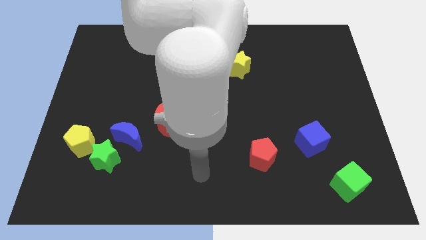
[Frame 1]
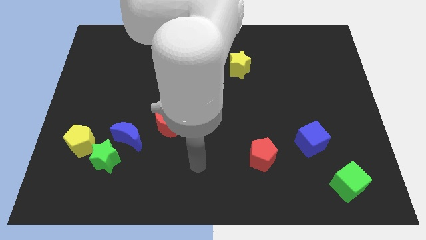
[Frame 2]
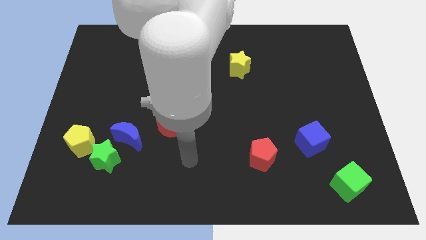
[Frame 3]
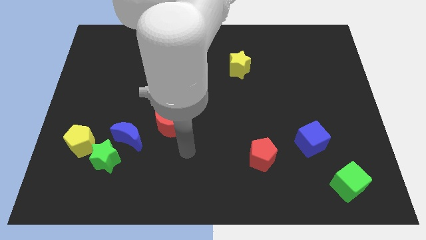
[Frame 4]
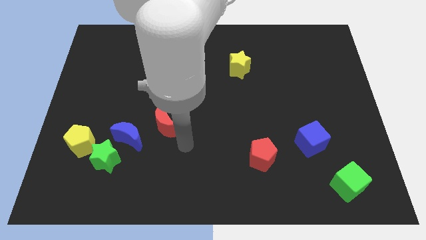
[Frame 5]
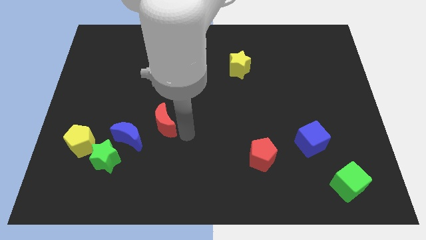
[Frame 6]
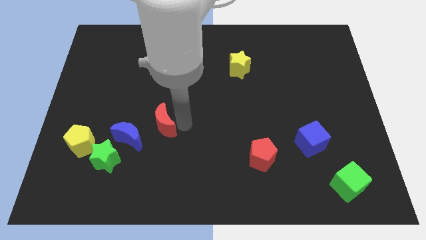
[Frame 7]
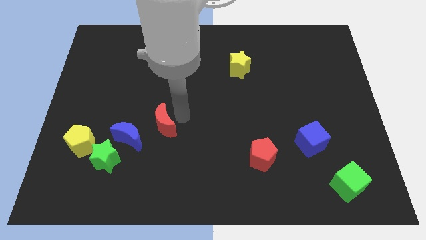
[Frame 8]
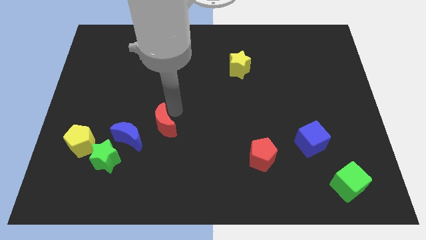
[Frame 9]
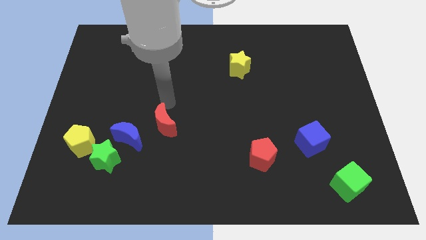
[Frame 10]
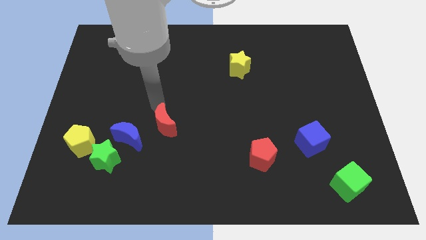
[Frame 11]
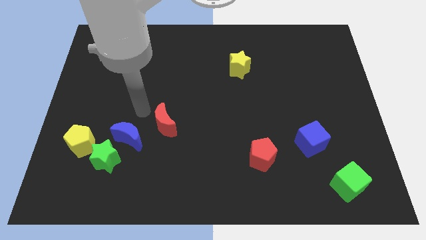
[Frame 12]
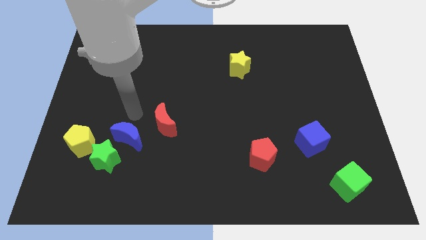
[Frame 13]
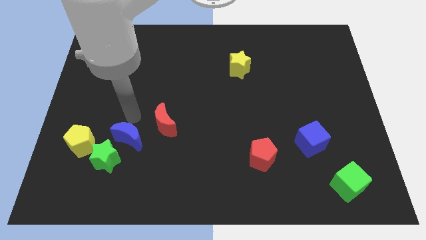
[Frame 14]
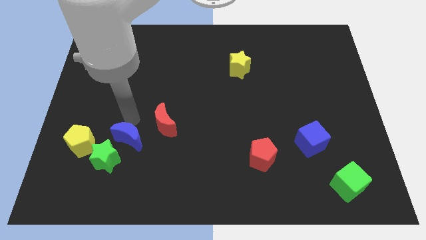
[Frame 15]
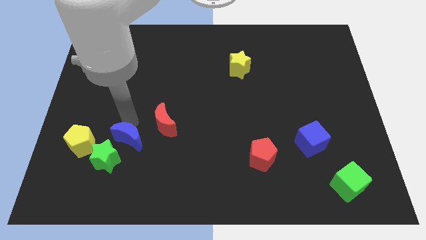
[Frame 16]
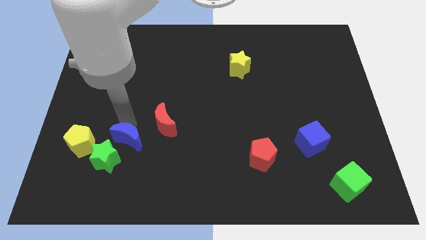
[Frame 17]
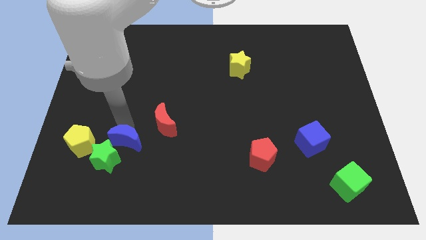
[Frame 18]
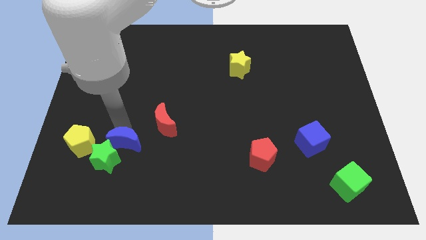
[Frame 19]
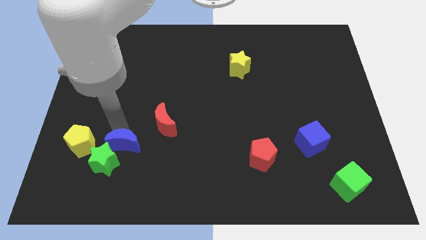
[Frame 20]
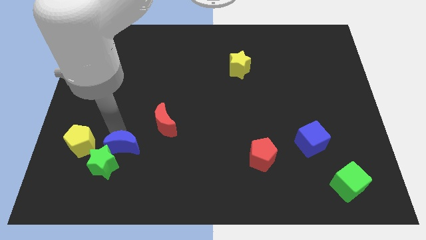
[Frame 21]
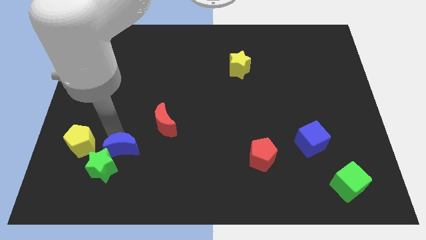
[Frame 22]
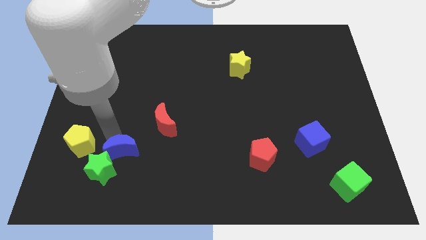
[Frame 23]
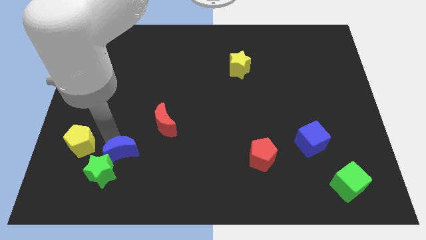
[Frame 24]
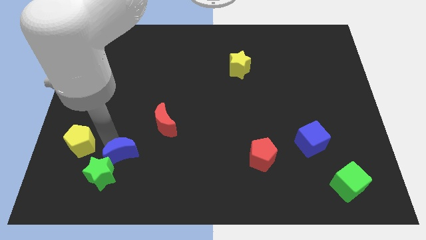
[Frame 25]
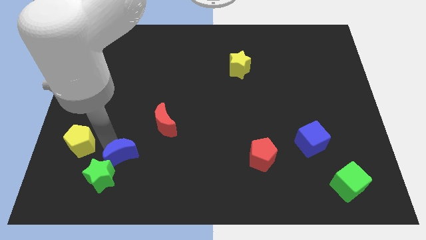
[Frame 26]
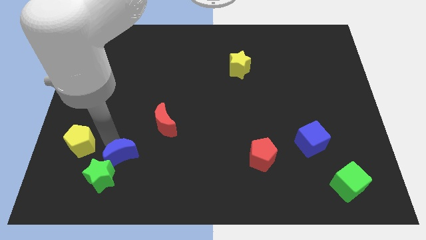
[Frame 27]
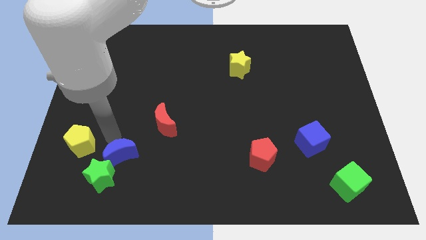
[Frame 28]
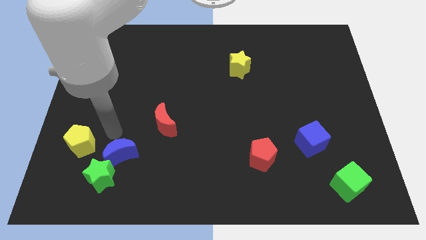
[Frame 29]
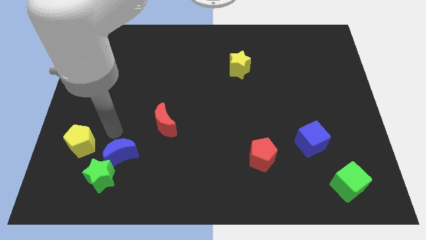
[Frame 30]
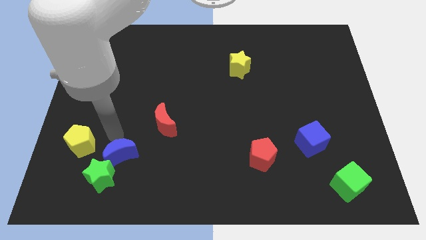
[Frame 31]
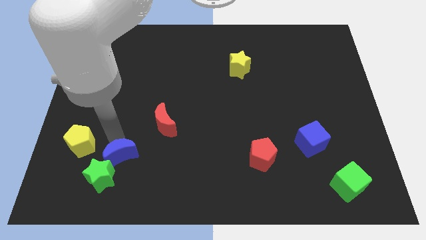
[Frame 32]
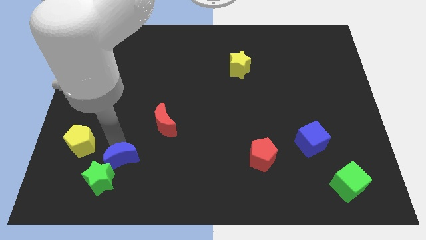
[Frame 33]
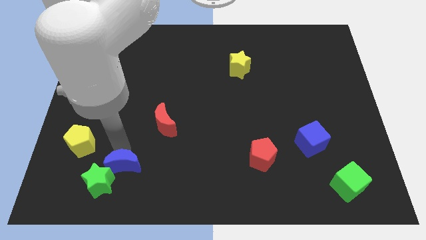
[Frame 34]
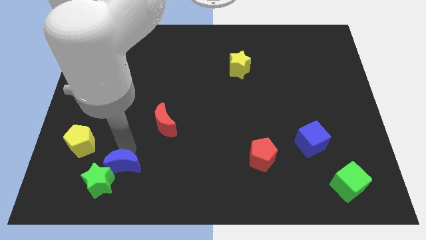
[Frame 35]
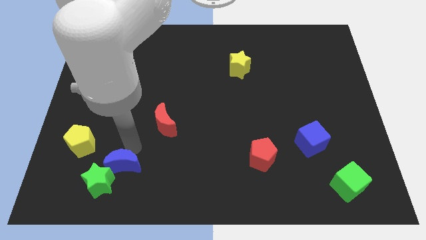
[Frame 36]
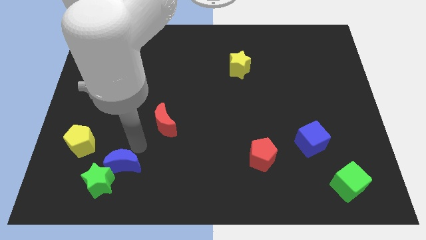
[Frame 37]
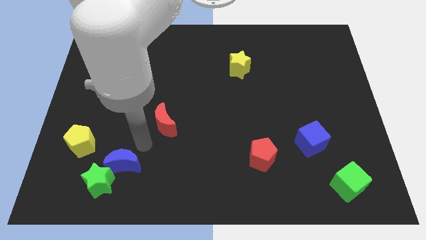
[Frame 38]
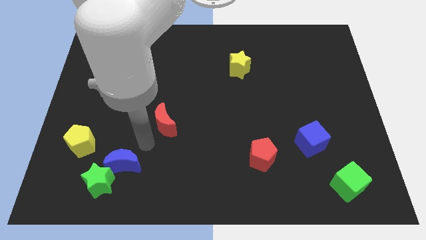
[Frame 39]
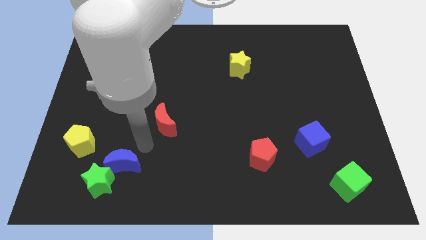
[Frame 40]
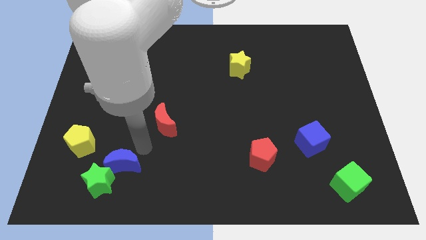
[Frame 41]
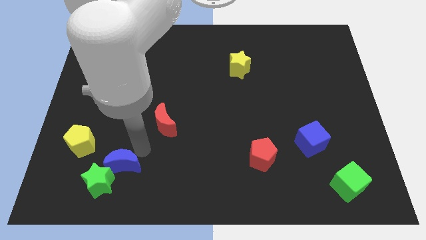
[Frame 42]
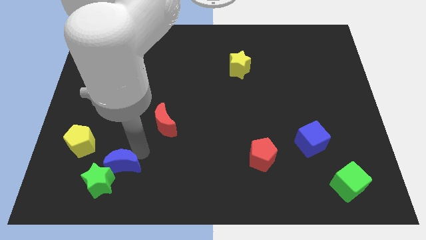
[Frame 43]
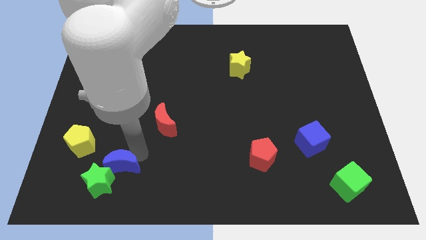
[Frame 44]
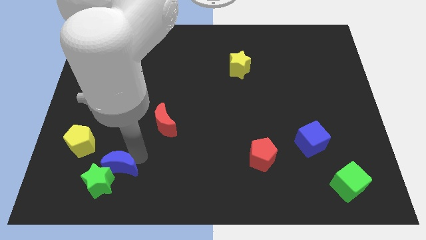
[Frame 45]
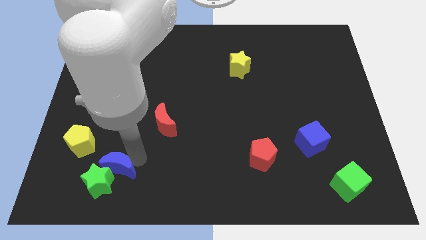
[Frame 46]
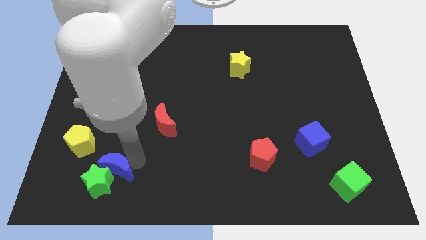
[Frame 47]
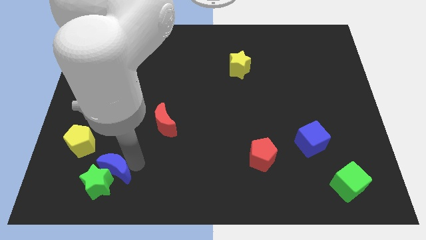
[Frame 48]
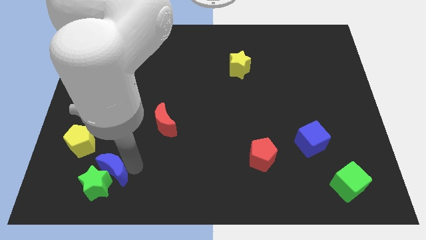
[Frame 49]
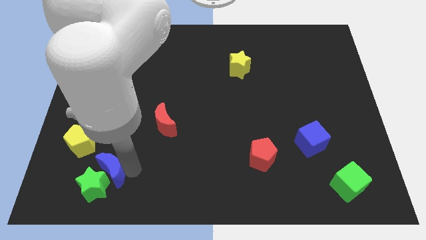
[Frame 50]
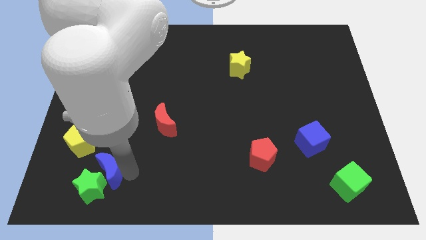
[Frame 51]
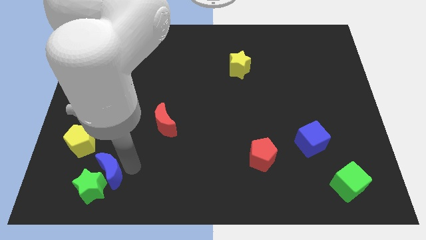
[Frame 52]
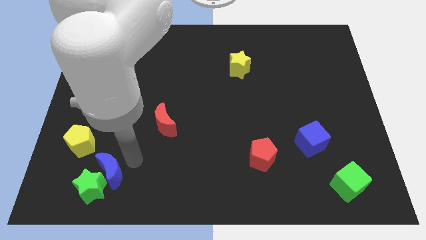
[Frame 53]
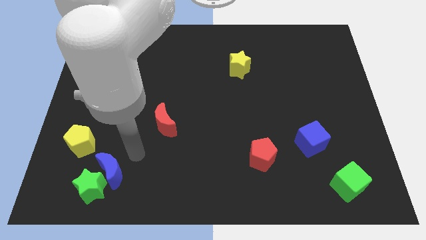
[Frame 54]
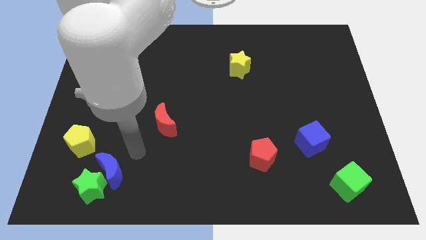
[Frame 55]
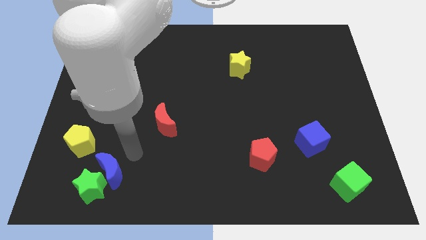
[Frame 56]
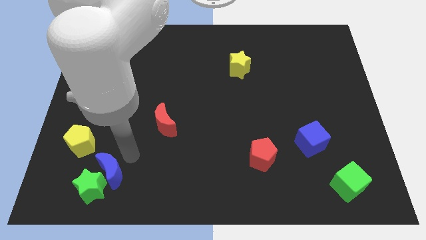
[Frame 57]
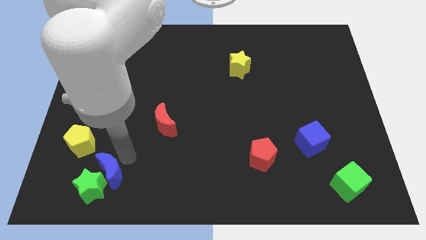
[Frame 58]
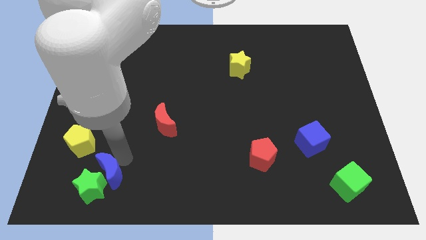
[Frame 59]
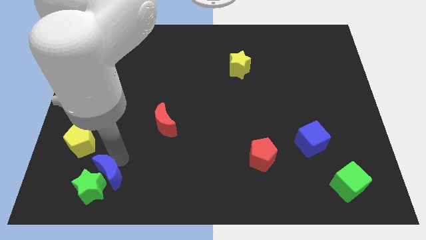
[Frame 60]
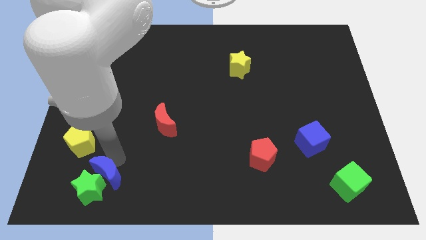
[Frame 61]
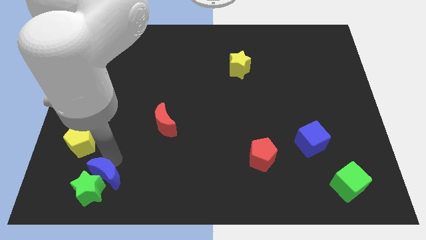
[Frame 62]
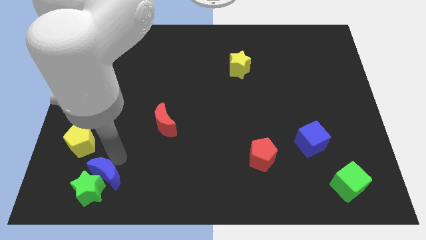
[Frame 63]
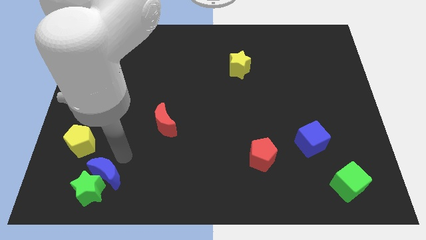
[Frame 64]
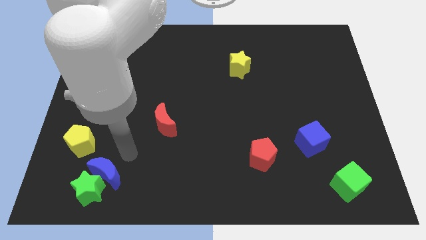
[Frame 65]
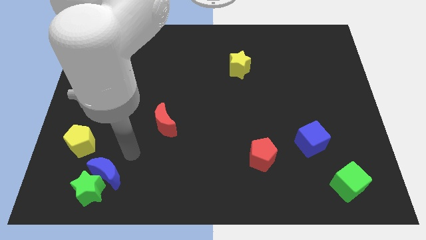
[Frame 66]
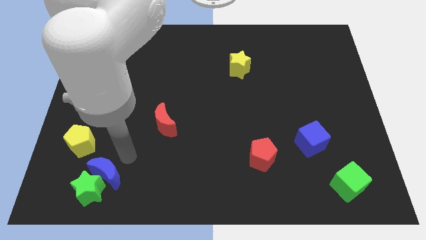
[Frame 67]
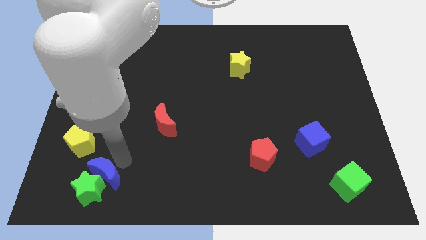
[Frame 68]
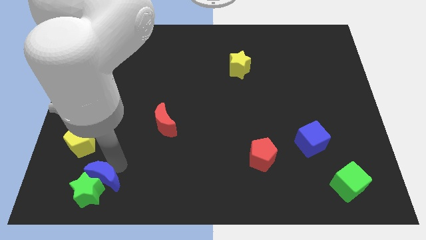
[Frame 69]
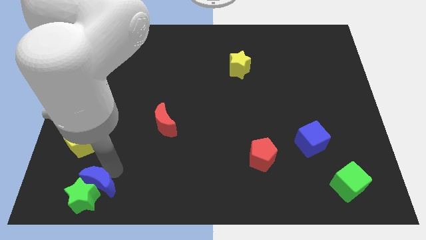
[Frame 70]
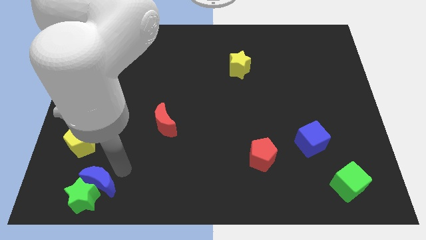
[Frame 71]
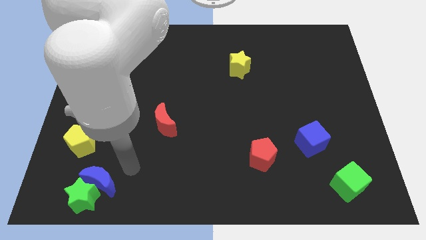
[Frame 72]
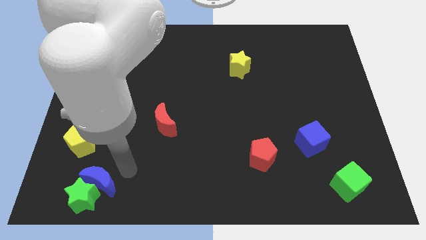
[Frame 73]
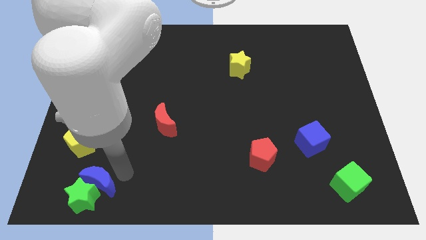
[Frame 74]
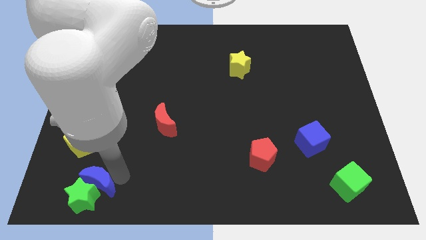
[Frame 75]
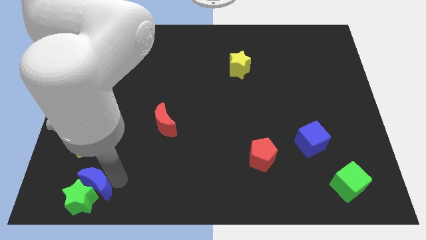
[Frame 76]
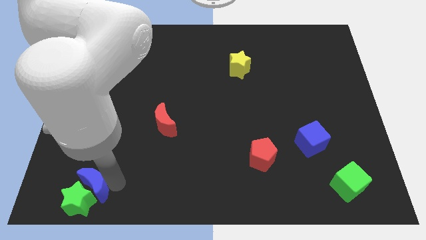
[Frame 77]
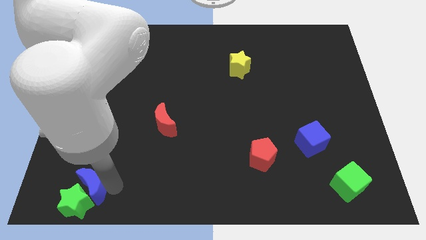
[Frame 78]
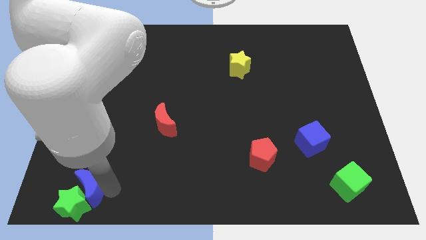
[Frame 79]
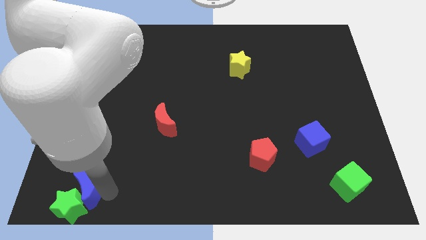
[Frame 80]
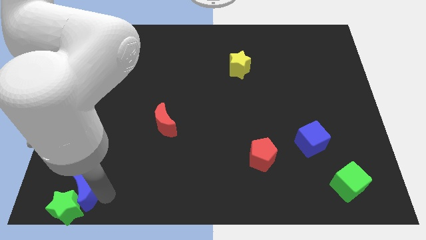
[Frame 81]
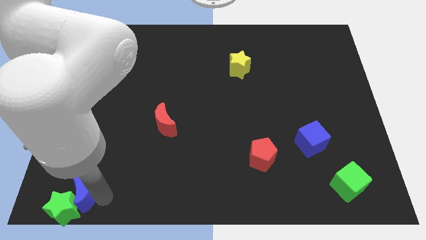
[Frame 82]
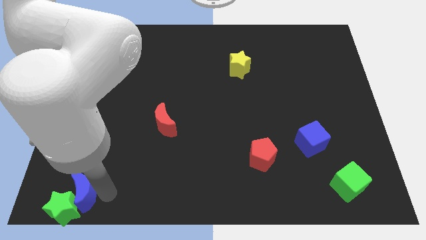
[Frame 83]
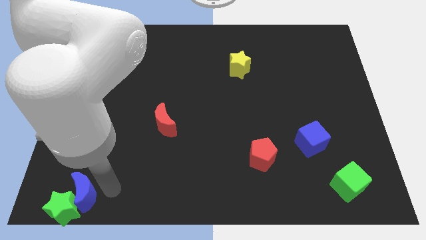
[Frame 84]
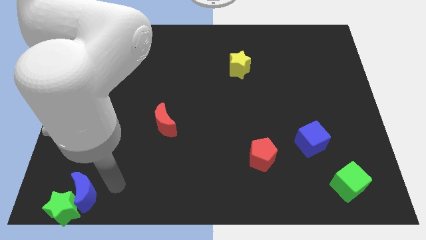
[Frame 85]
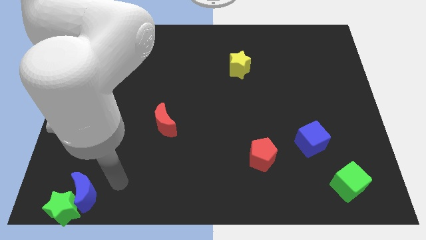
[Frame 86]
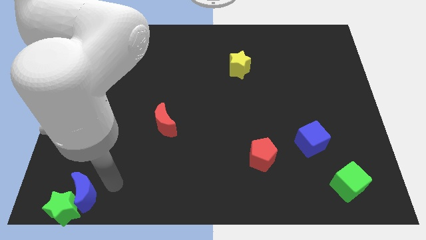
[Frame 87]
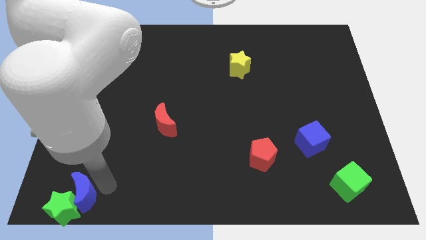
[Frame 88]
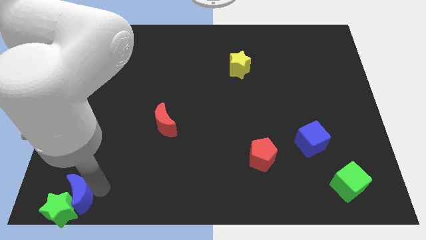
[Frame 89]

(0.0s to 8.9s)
put the blue moon to the bottom left corner
